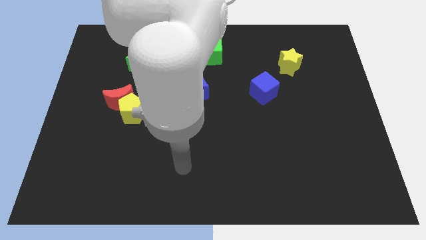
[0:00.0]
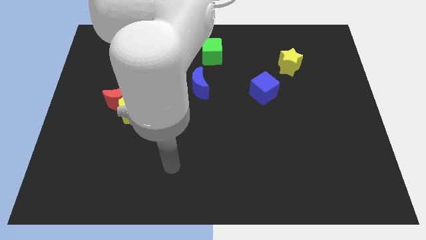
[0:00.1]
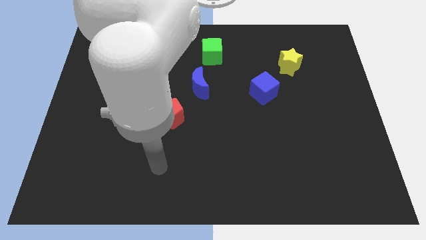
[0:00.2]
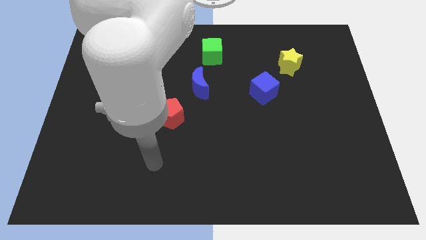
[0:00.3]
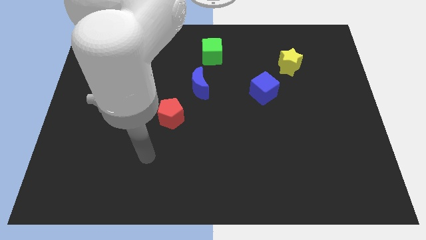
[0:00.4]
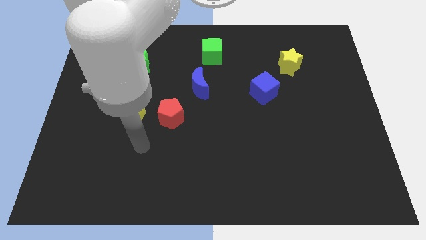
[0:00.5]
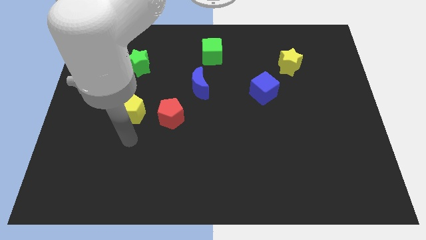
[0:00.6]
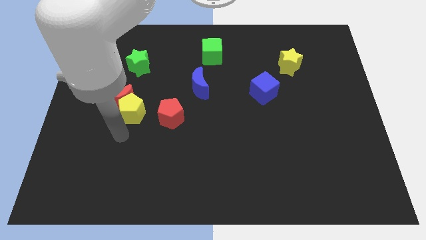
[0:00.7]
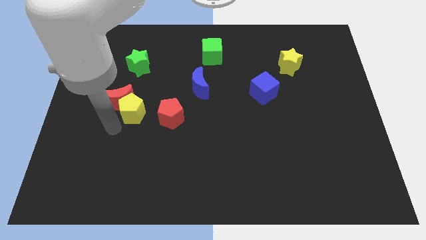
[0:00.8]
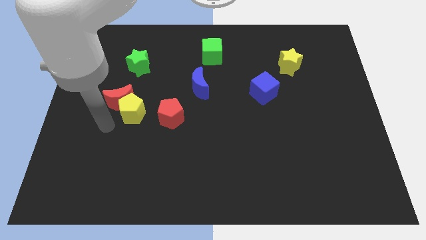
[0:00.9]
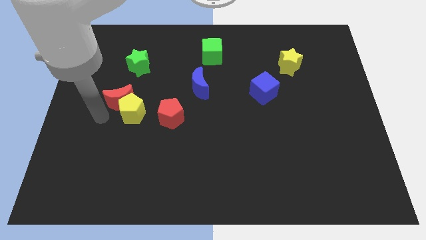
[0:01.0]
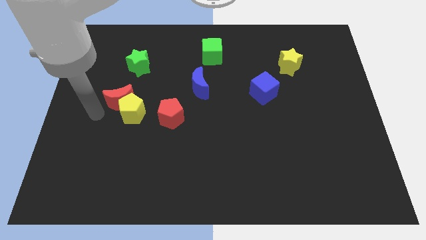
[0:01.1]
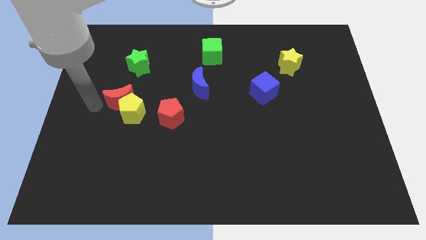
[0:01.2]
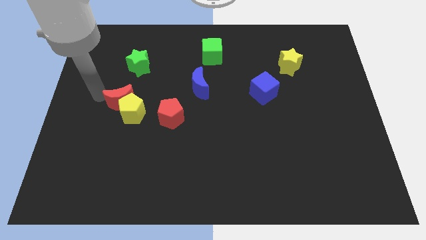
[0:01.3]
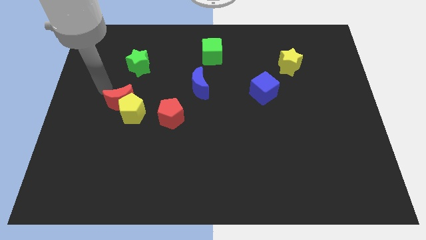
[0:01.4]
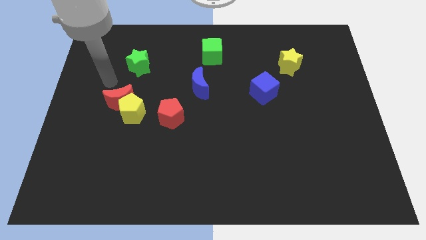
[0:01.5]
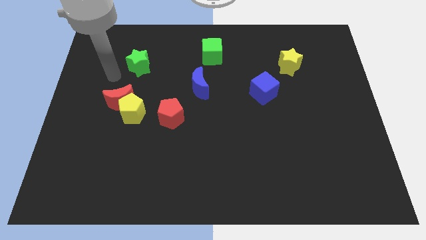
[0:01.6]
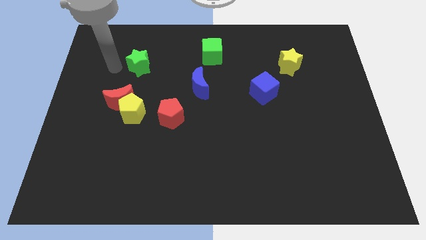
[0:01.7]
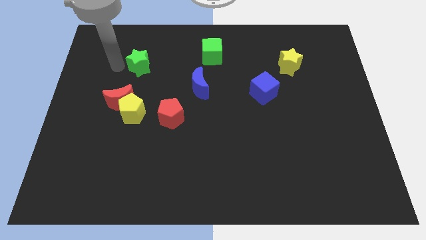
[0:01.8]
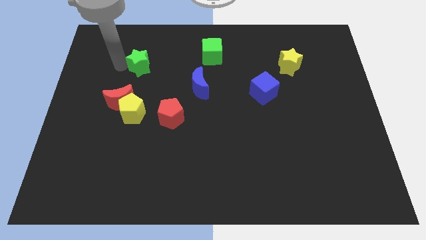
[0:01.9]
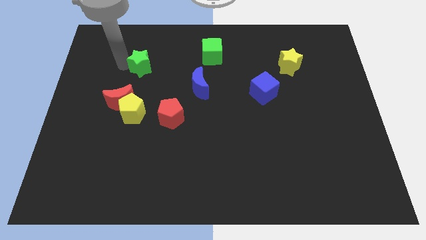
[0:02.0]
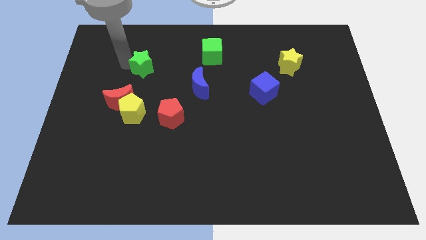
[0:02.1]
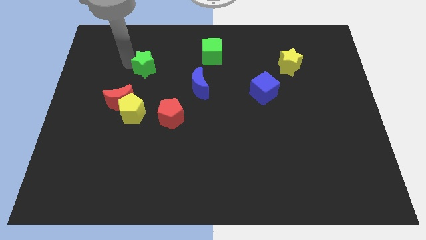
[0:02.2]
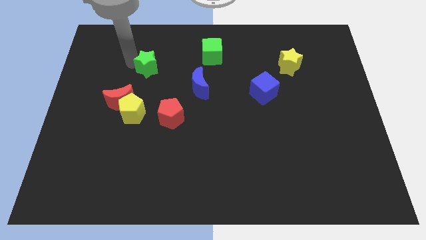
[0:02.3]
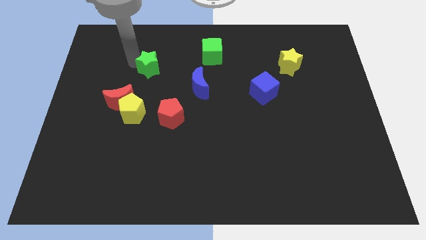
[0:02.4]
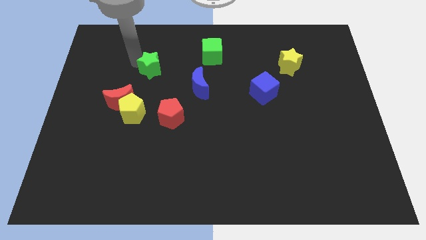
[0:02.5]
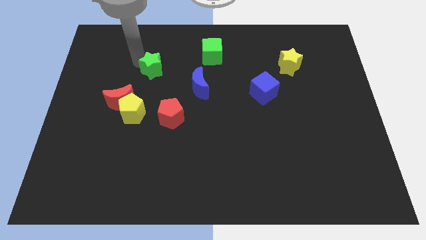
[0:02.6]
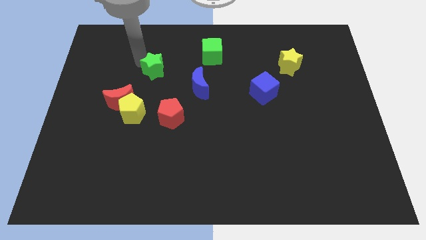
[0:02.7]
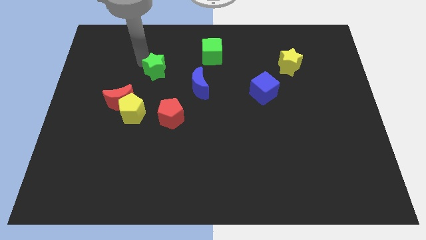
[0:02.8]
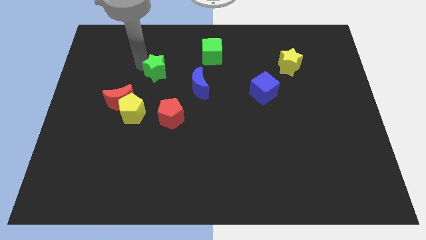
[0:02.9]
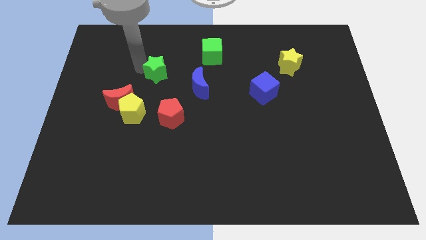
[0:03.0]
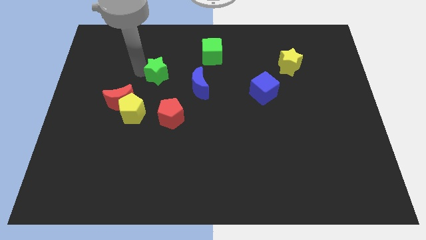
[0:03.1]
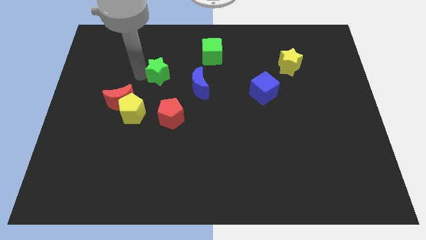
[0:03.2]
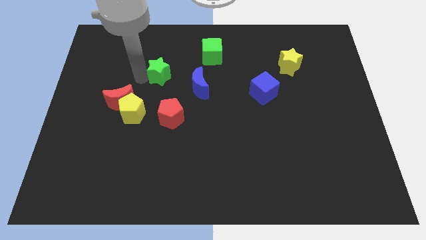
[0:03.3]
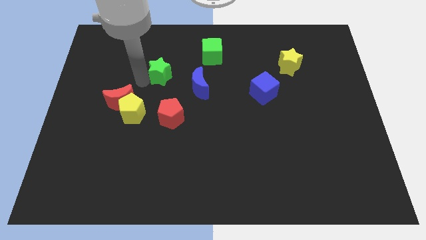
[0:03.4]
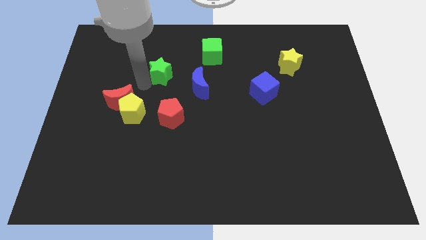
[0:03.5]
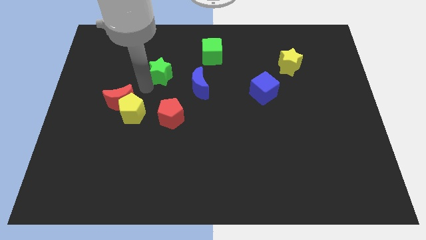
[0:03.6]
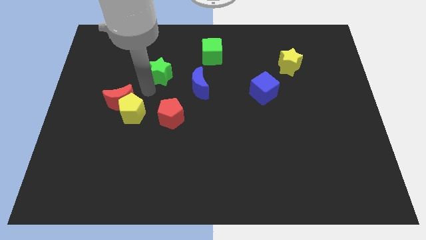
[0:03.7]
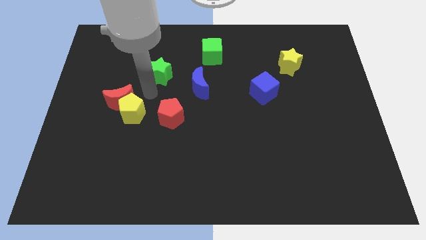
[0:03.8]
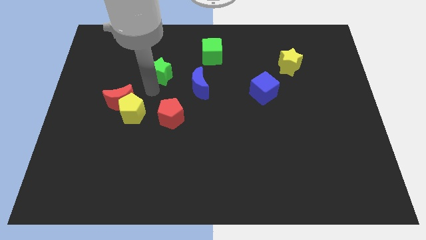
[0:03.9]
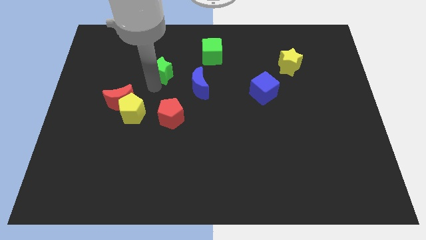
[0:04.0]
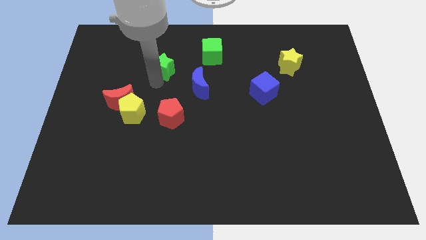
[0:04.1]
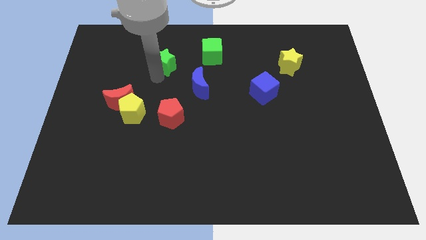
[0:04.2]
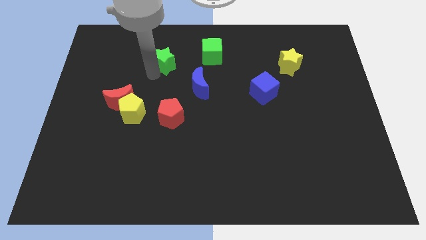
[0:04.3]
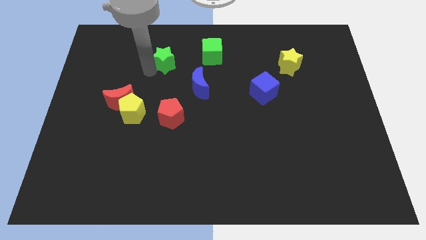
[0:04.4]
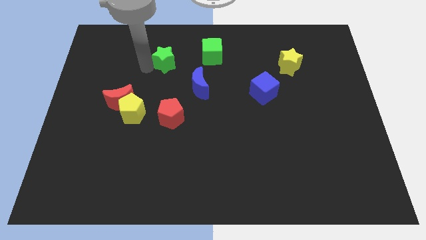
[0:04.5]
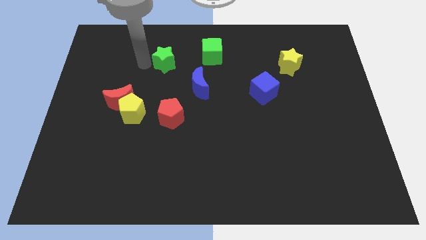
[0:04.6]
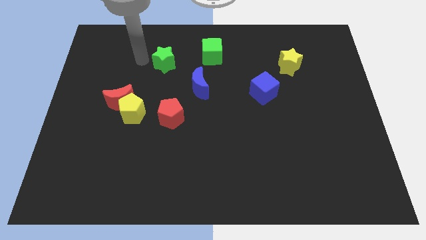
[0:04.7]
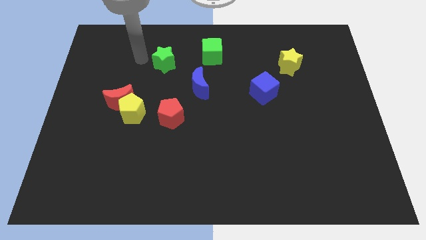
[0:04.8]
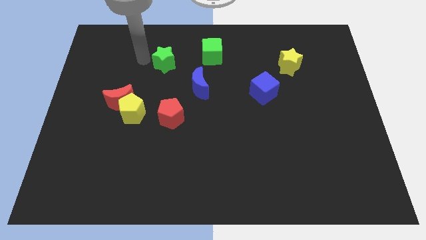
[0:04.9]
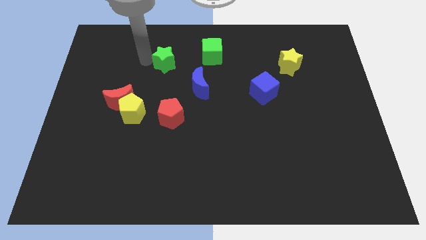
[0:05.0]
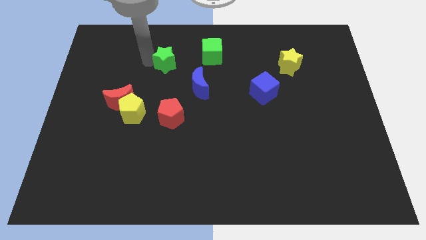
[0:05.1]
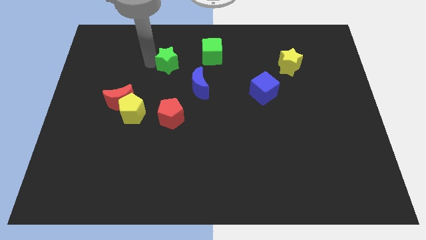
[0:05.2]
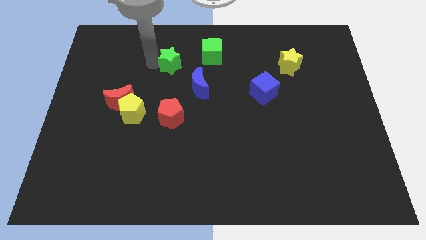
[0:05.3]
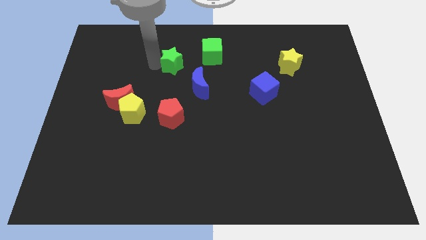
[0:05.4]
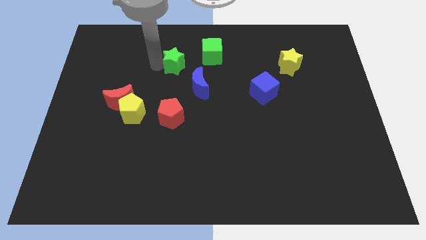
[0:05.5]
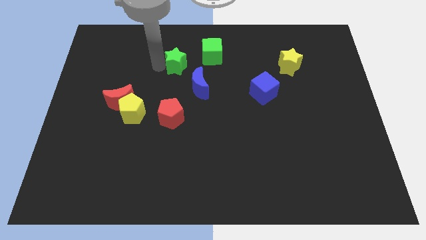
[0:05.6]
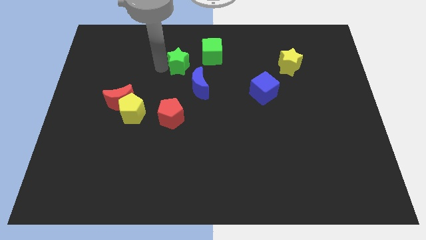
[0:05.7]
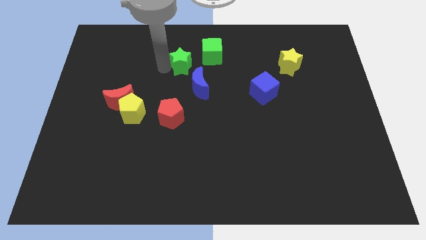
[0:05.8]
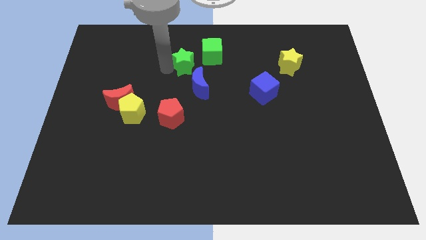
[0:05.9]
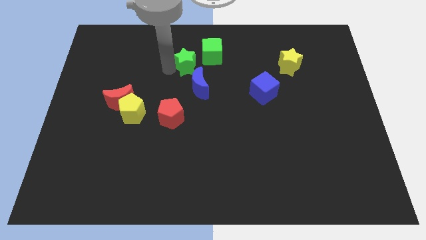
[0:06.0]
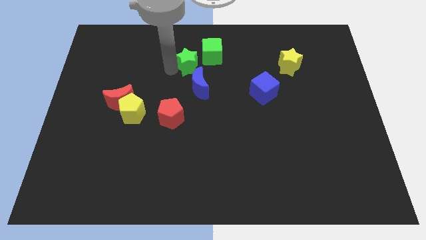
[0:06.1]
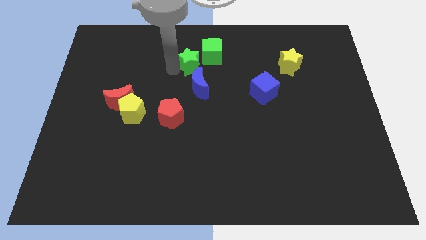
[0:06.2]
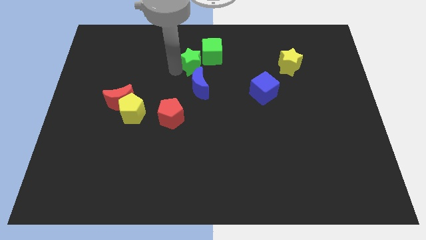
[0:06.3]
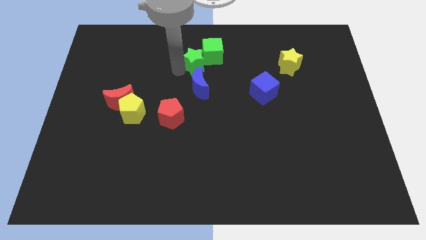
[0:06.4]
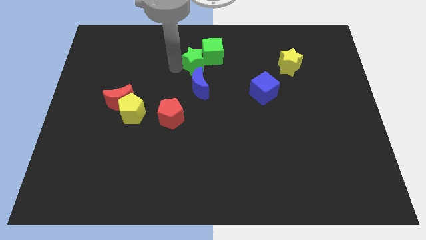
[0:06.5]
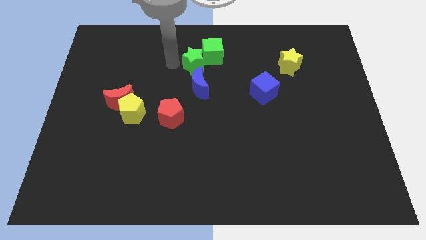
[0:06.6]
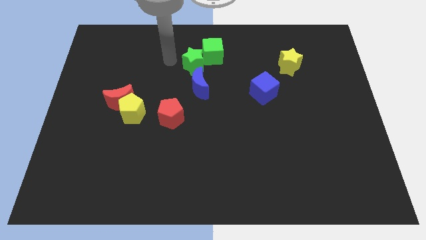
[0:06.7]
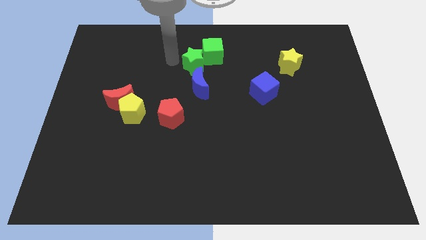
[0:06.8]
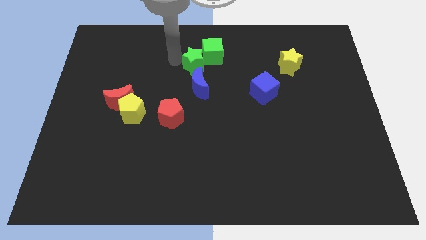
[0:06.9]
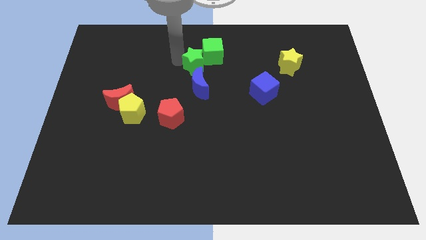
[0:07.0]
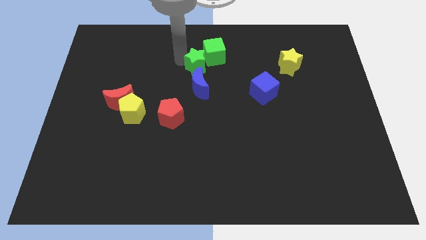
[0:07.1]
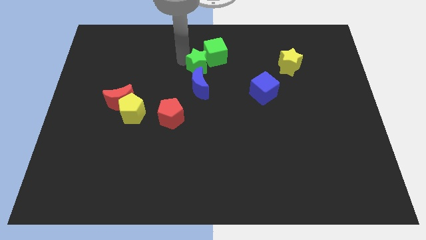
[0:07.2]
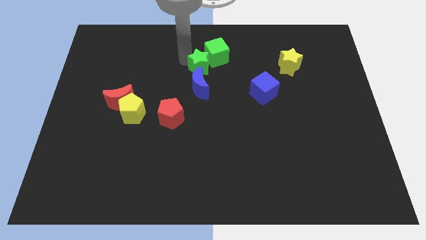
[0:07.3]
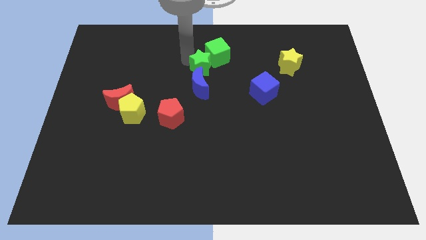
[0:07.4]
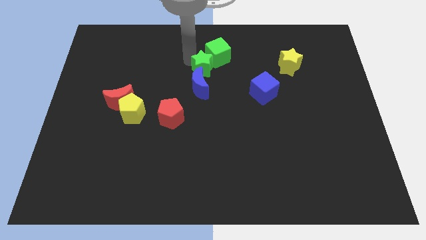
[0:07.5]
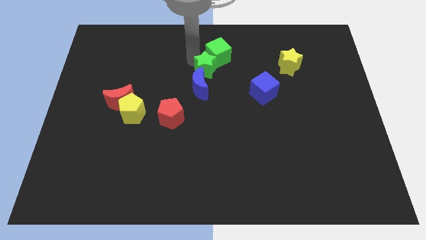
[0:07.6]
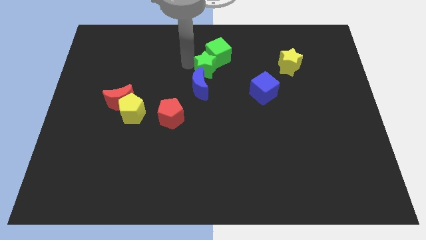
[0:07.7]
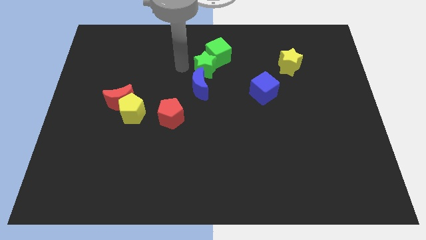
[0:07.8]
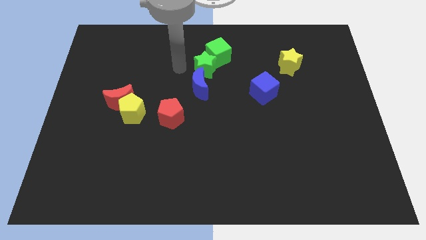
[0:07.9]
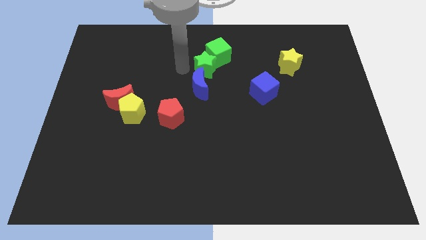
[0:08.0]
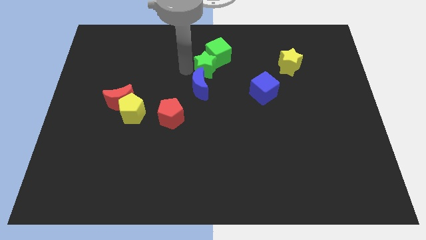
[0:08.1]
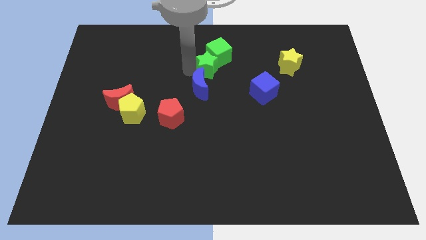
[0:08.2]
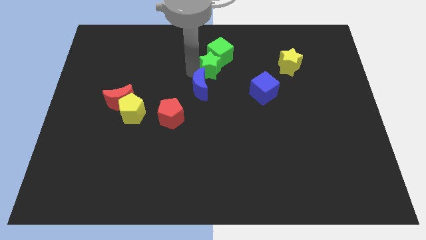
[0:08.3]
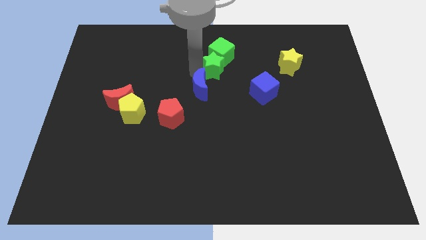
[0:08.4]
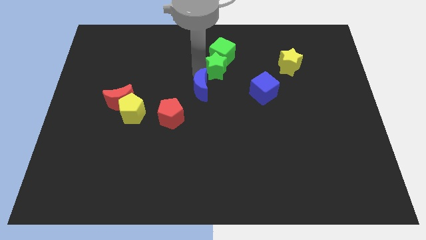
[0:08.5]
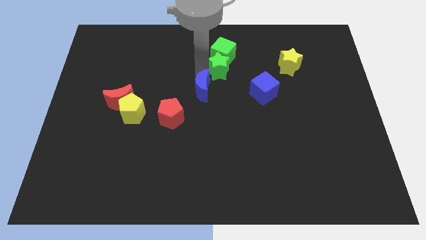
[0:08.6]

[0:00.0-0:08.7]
push the green star diagonally down and to the right of the green cube
